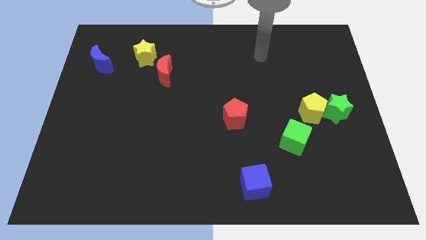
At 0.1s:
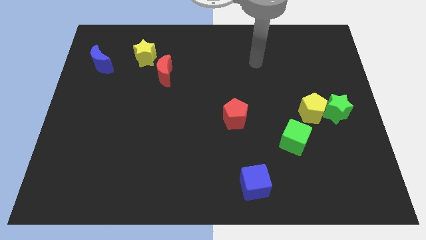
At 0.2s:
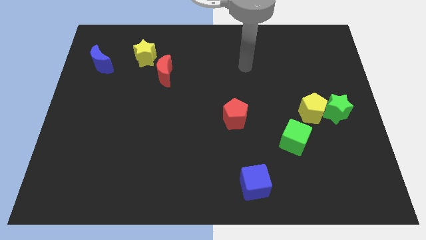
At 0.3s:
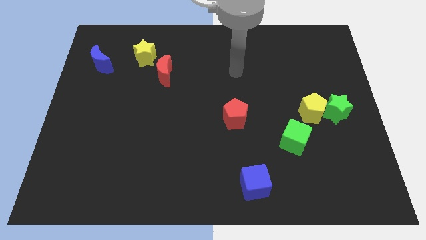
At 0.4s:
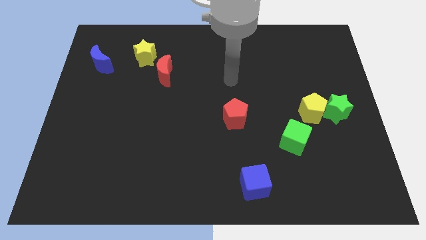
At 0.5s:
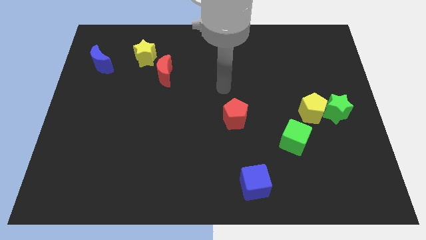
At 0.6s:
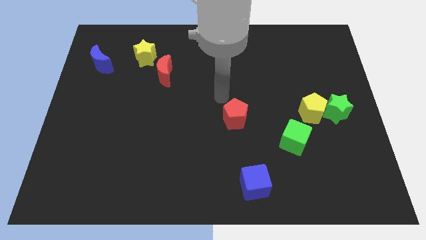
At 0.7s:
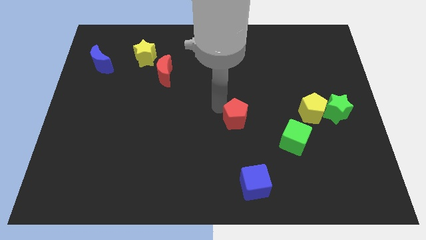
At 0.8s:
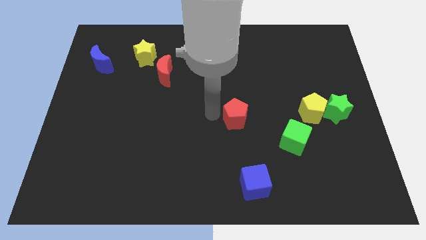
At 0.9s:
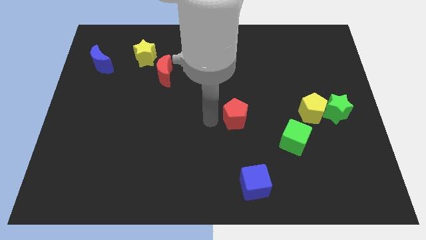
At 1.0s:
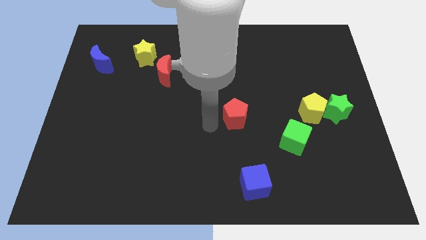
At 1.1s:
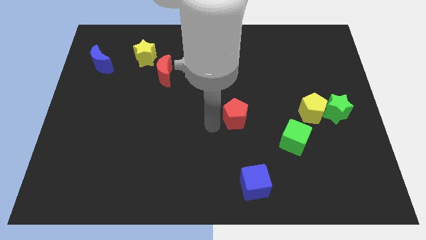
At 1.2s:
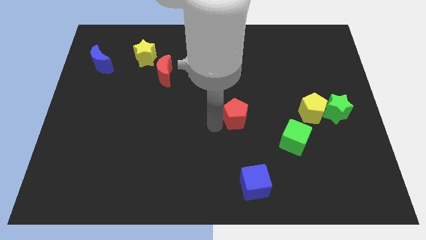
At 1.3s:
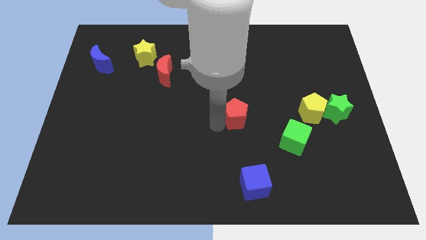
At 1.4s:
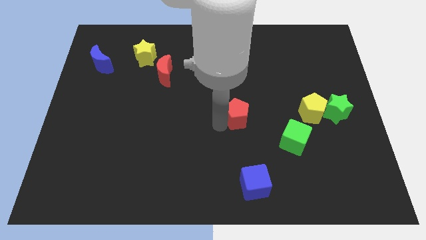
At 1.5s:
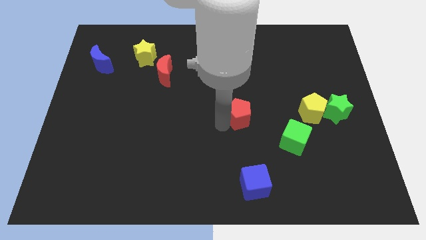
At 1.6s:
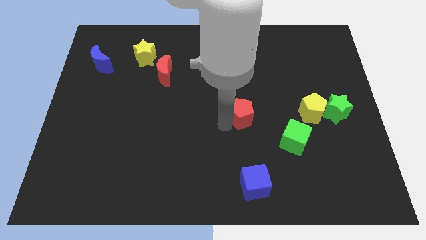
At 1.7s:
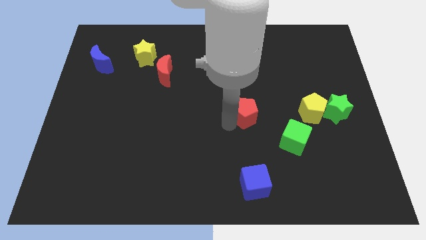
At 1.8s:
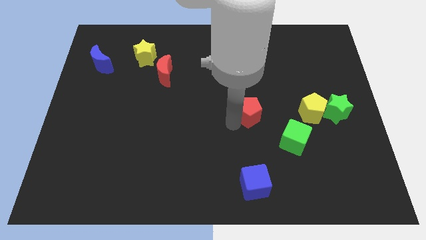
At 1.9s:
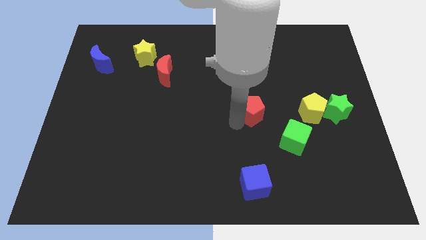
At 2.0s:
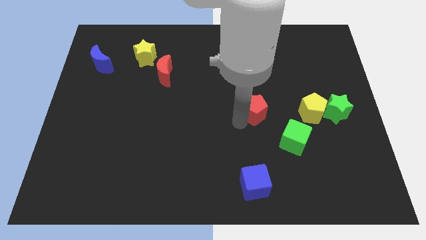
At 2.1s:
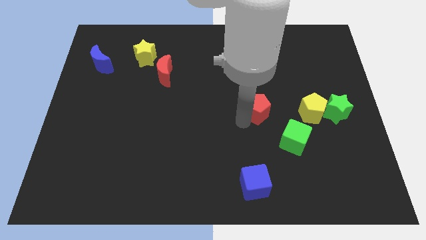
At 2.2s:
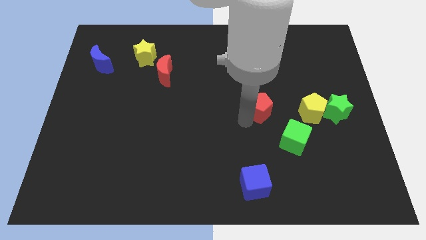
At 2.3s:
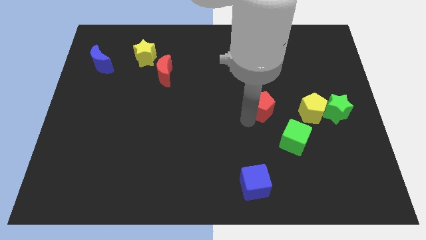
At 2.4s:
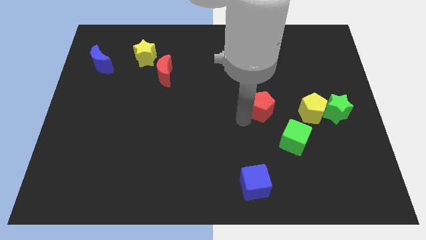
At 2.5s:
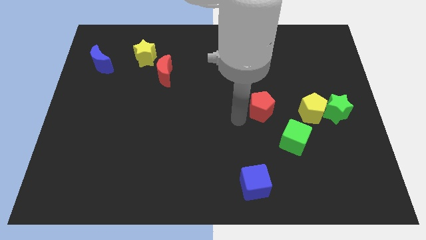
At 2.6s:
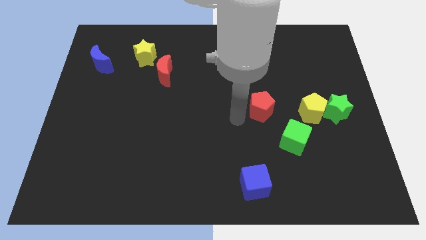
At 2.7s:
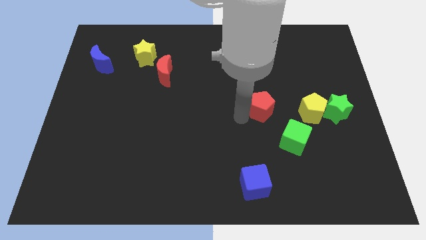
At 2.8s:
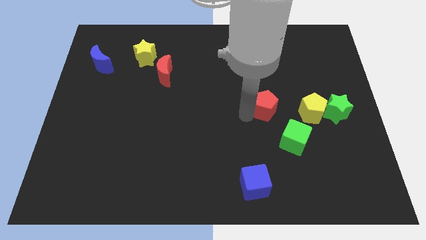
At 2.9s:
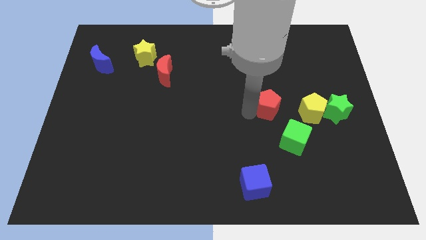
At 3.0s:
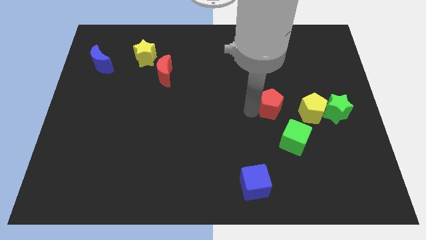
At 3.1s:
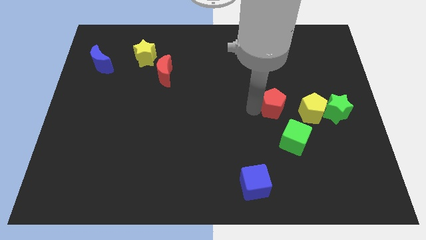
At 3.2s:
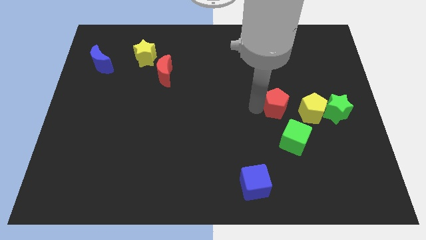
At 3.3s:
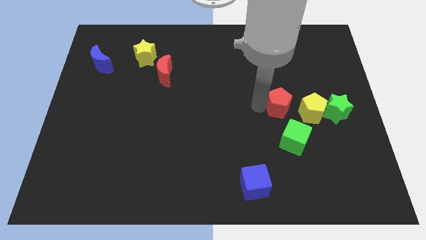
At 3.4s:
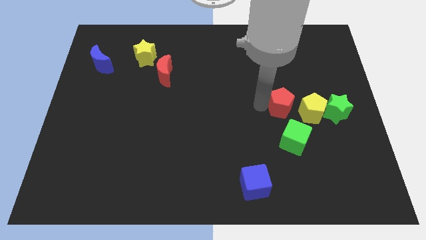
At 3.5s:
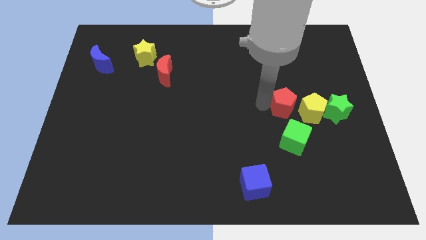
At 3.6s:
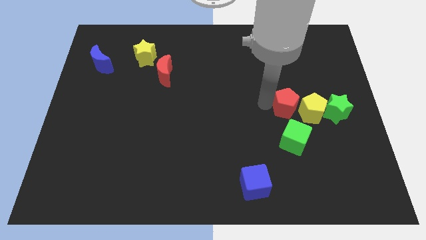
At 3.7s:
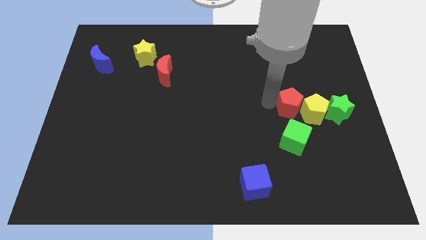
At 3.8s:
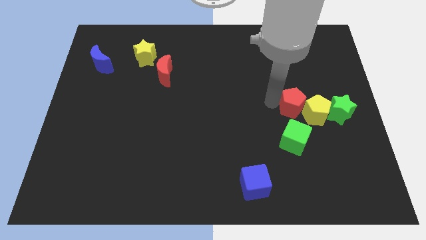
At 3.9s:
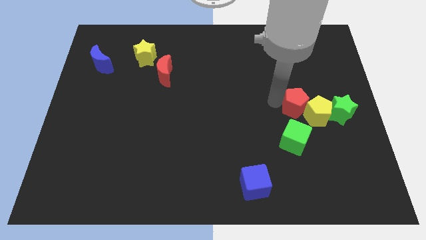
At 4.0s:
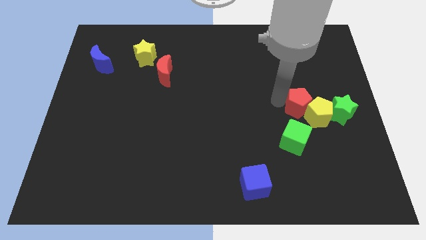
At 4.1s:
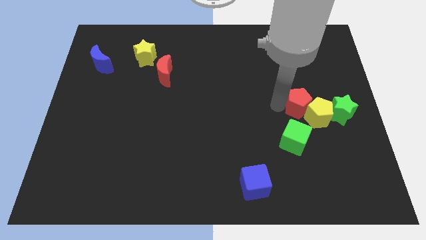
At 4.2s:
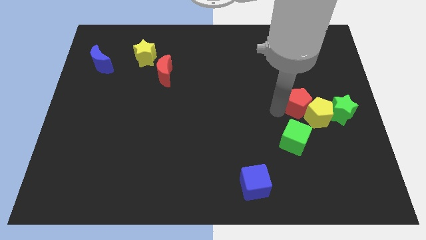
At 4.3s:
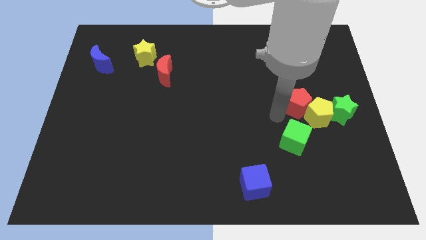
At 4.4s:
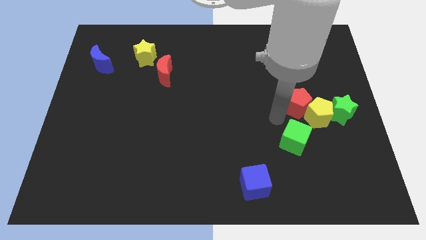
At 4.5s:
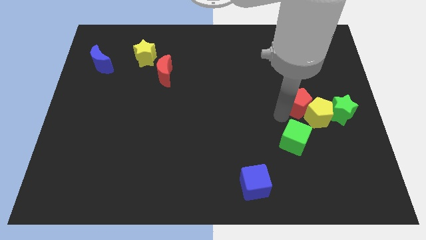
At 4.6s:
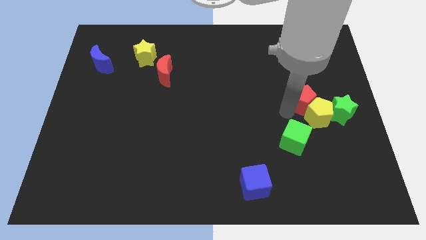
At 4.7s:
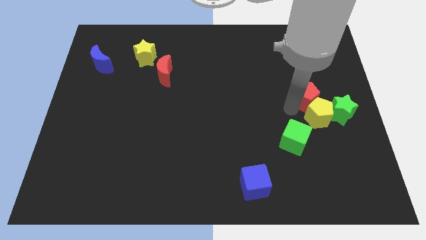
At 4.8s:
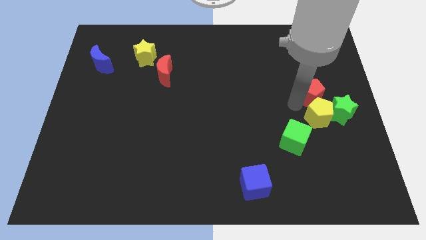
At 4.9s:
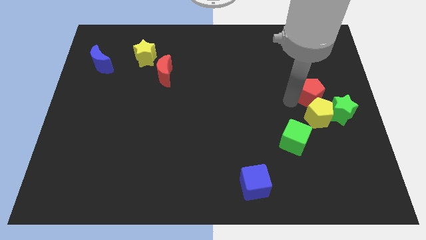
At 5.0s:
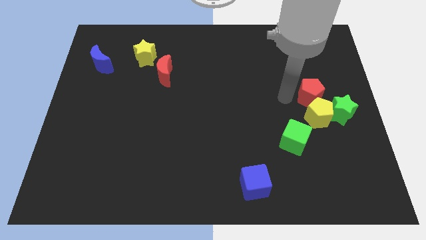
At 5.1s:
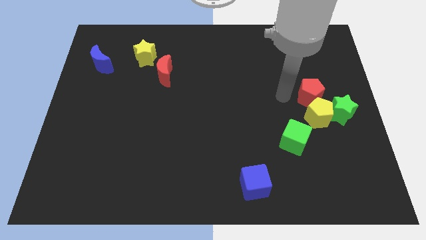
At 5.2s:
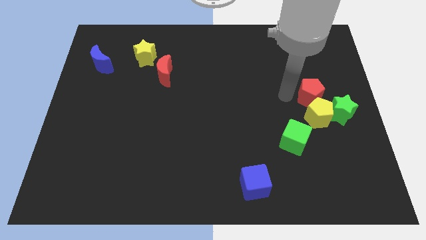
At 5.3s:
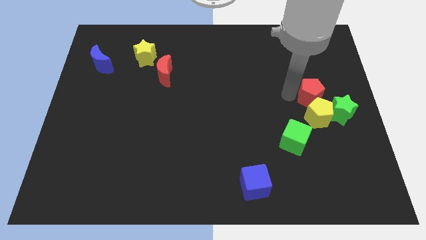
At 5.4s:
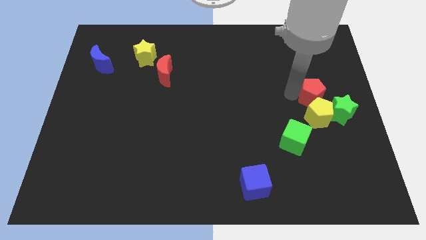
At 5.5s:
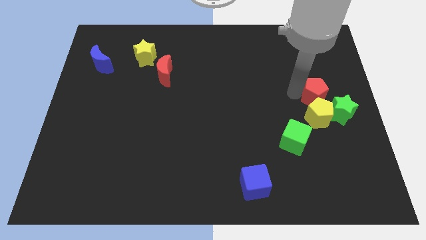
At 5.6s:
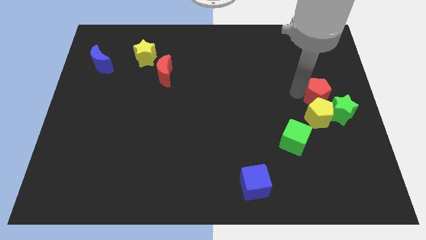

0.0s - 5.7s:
put the red pentagon to the right side
